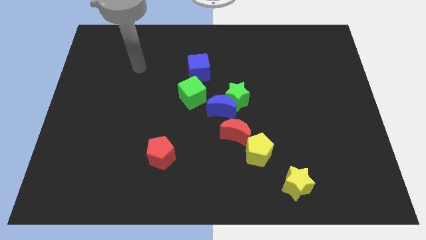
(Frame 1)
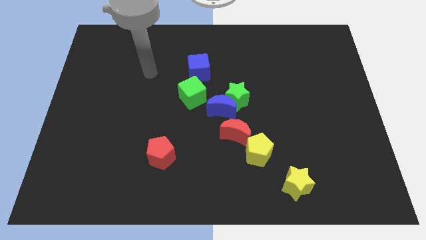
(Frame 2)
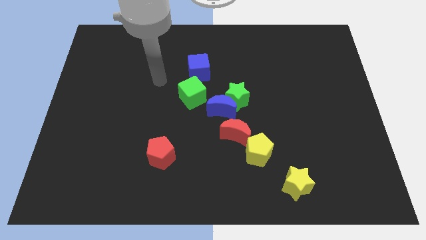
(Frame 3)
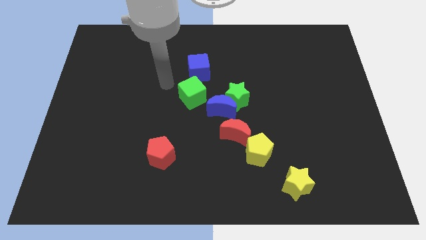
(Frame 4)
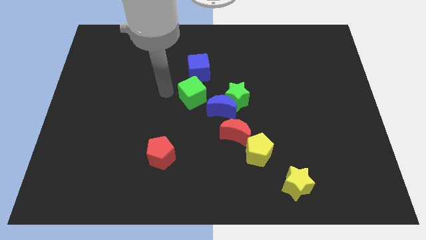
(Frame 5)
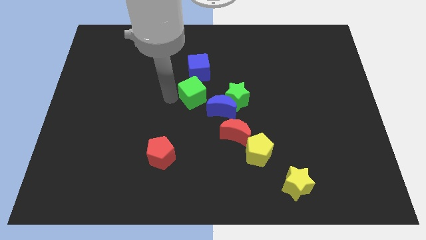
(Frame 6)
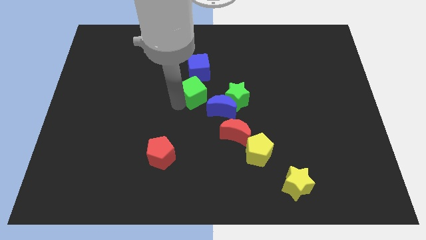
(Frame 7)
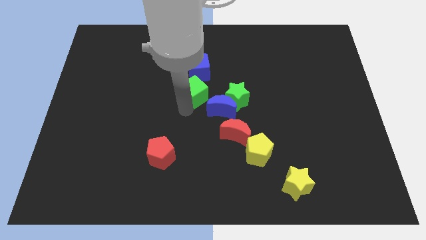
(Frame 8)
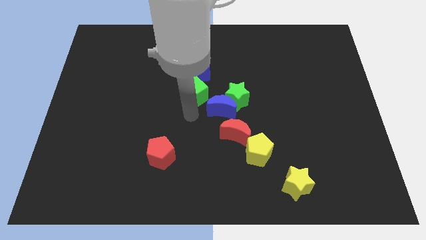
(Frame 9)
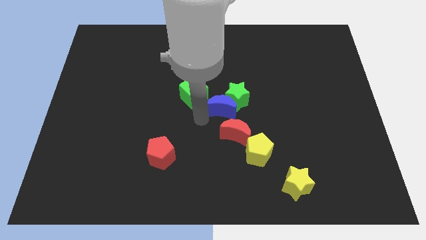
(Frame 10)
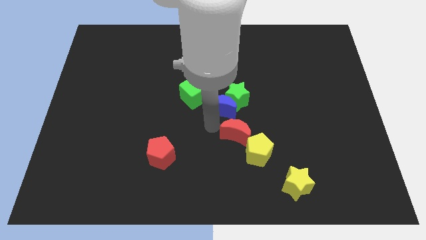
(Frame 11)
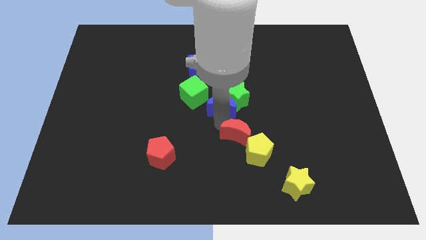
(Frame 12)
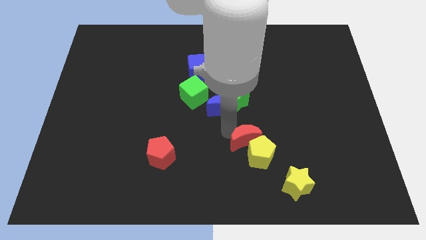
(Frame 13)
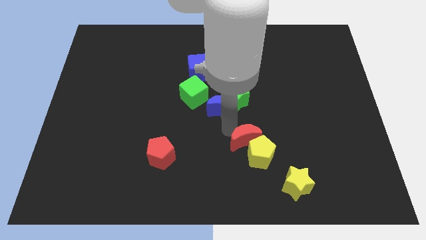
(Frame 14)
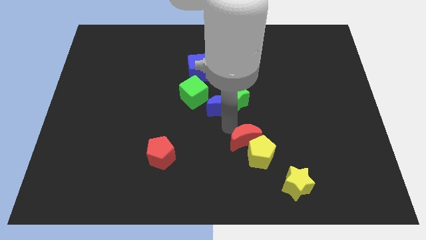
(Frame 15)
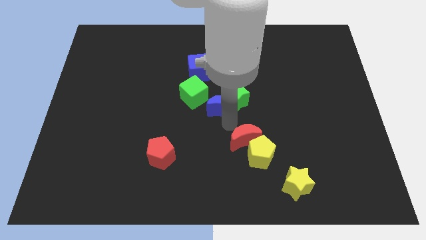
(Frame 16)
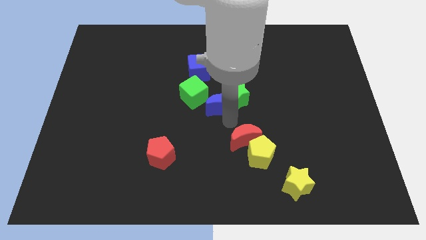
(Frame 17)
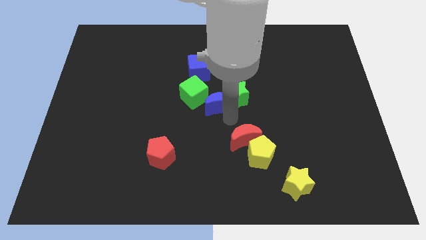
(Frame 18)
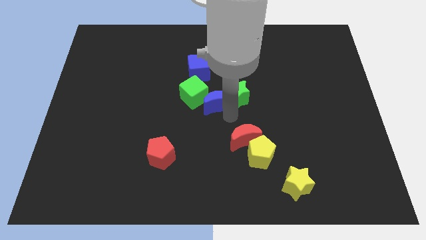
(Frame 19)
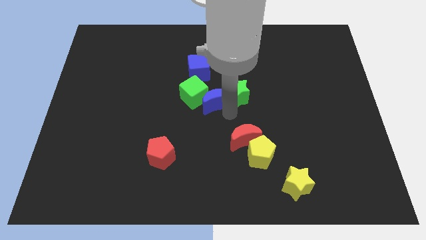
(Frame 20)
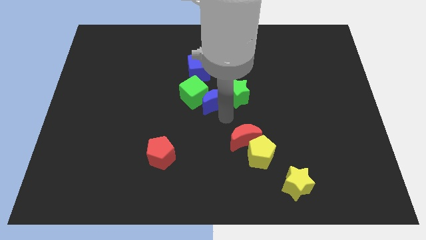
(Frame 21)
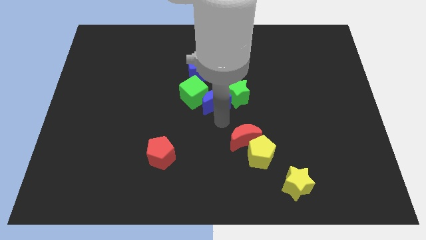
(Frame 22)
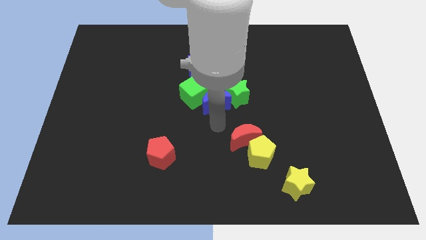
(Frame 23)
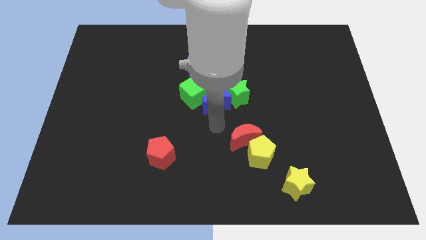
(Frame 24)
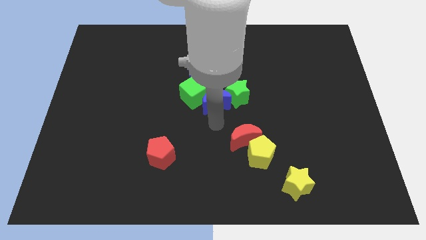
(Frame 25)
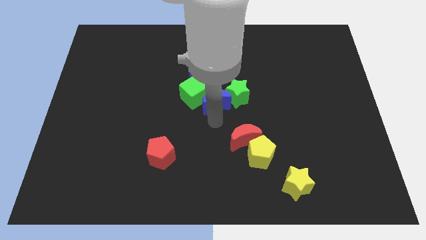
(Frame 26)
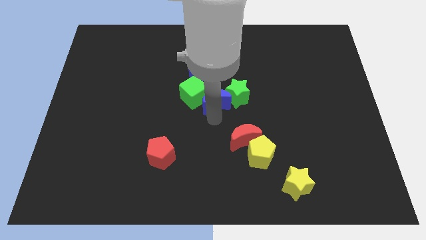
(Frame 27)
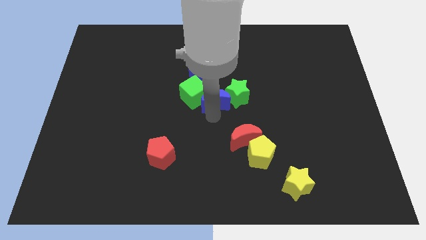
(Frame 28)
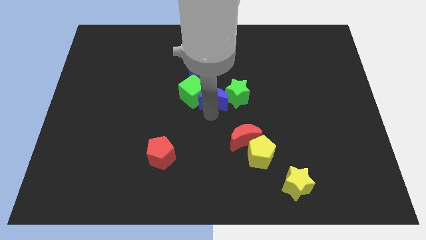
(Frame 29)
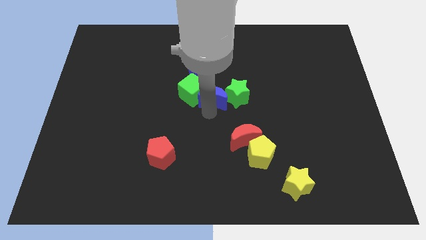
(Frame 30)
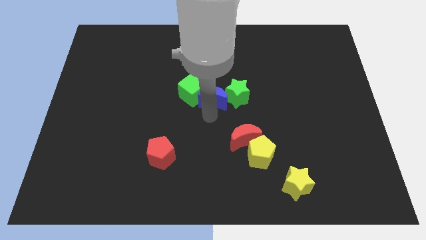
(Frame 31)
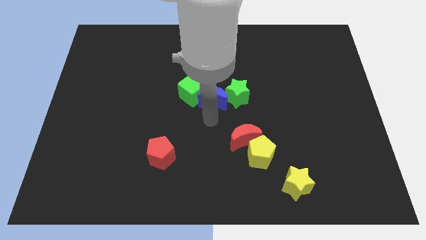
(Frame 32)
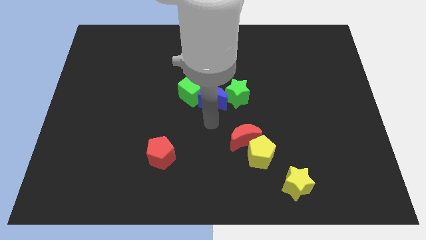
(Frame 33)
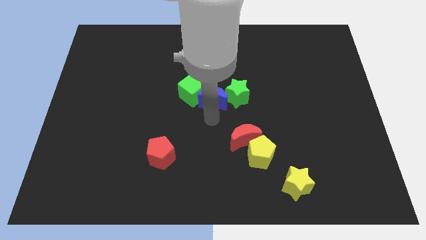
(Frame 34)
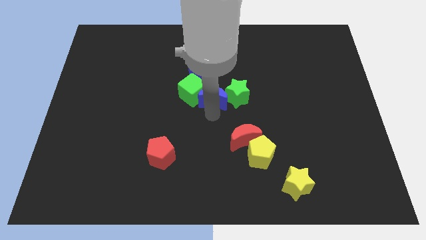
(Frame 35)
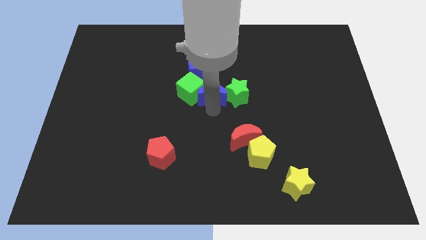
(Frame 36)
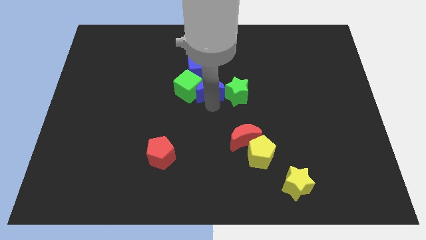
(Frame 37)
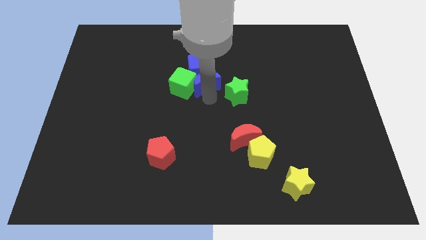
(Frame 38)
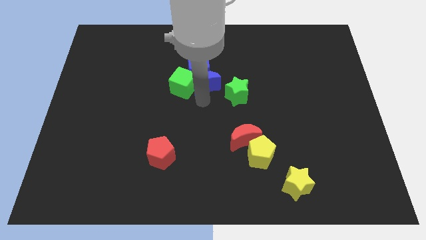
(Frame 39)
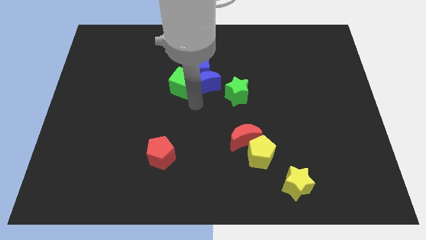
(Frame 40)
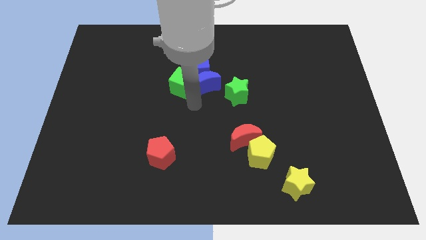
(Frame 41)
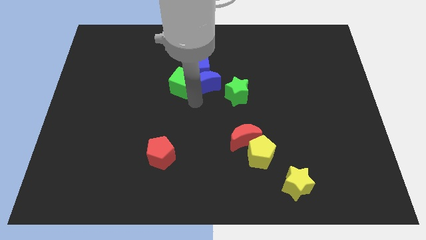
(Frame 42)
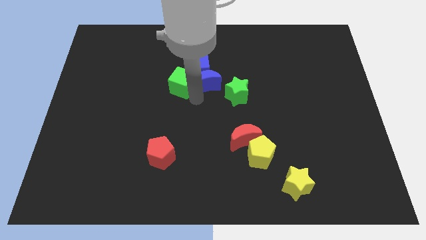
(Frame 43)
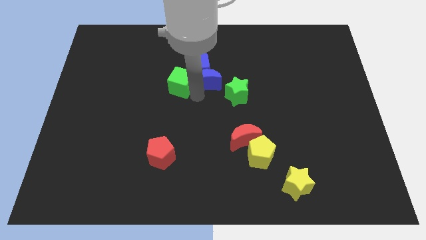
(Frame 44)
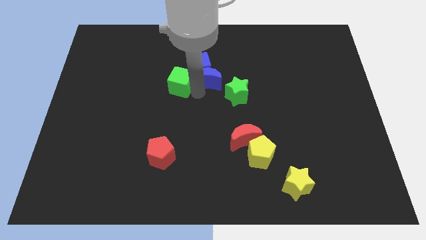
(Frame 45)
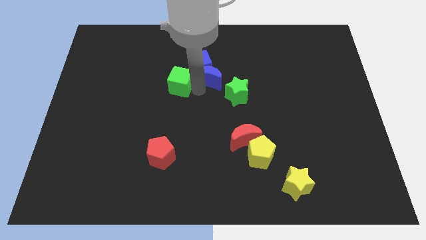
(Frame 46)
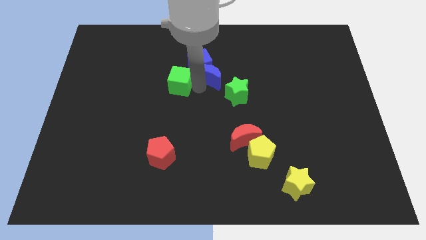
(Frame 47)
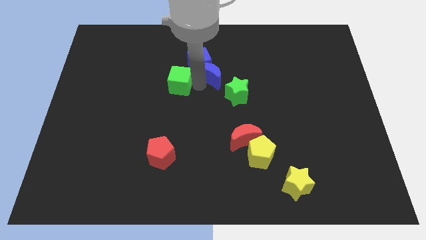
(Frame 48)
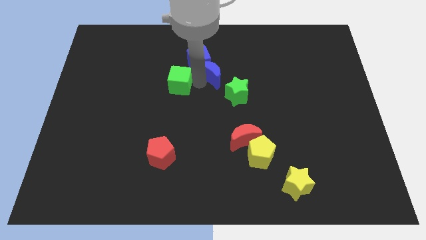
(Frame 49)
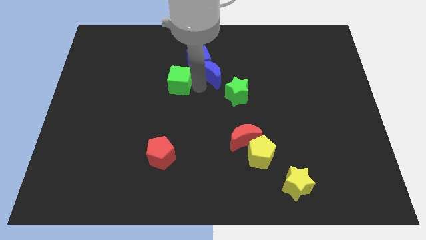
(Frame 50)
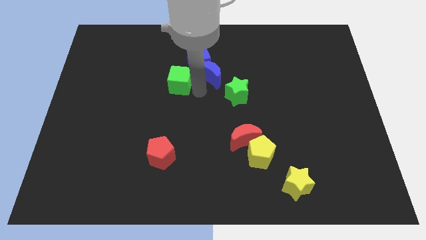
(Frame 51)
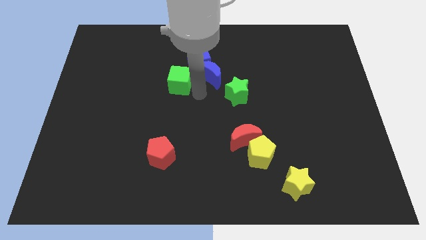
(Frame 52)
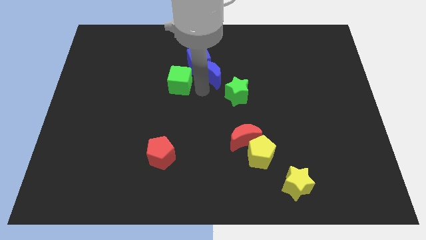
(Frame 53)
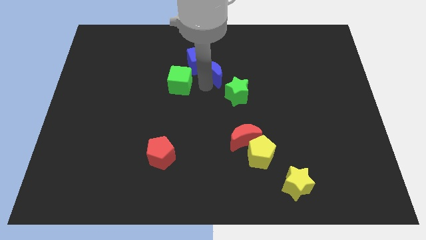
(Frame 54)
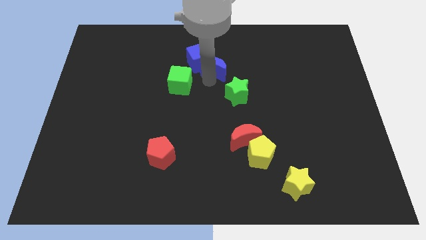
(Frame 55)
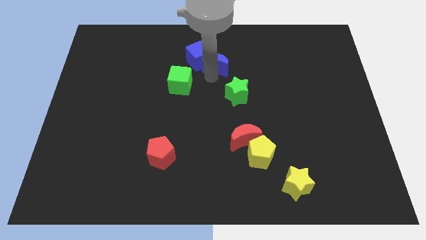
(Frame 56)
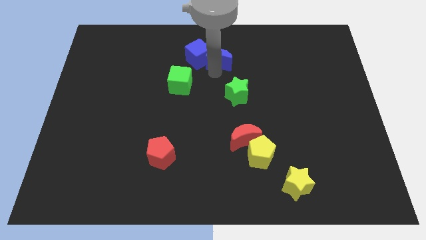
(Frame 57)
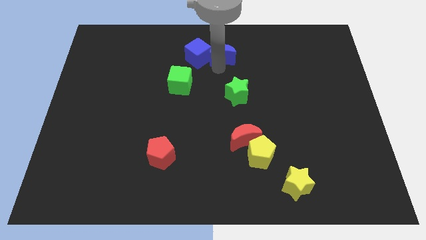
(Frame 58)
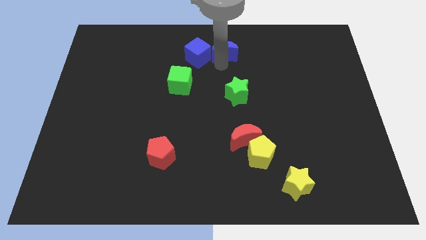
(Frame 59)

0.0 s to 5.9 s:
slide the blue moon to the top side

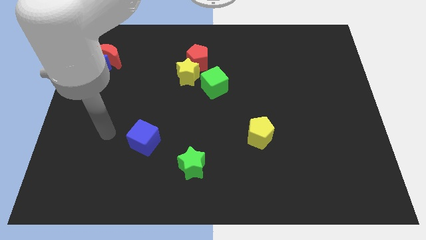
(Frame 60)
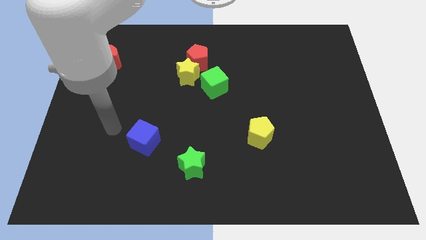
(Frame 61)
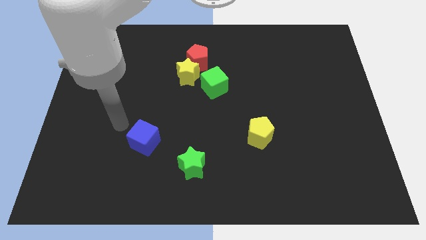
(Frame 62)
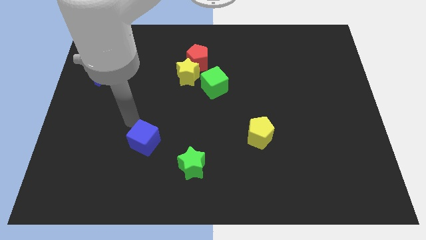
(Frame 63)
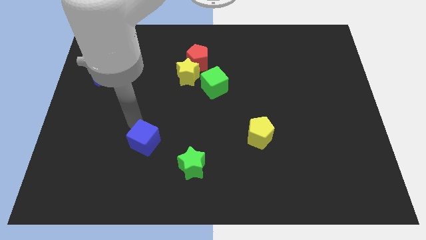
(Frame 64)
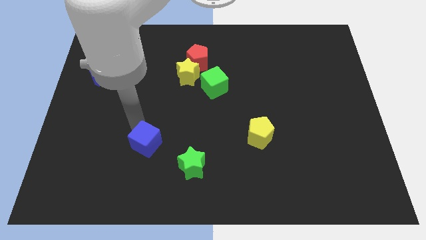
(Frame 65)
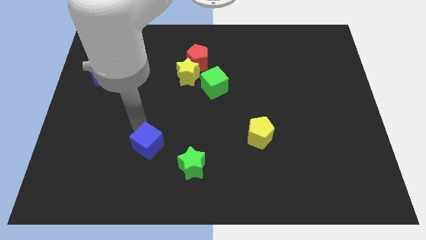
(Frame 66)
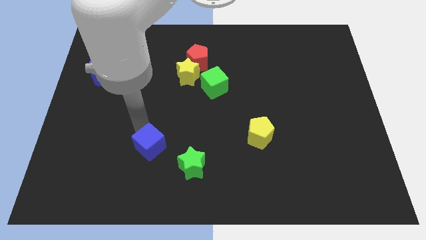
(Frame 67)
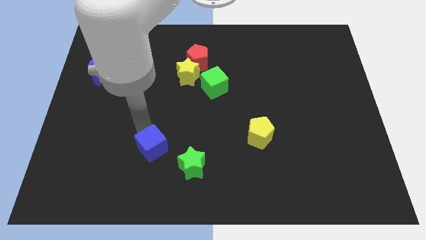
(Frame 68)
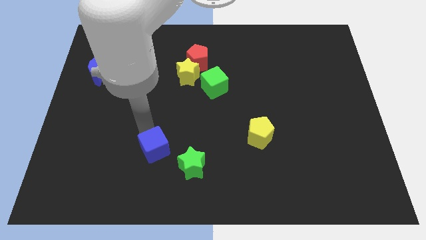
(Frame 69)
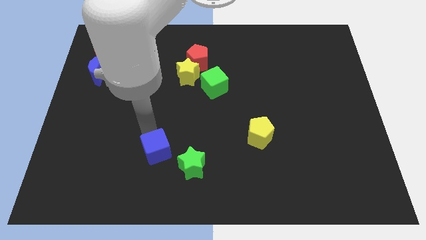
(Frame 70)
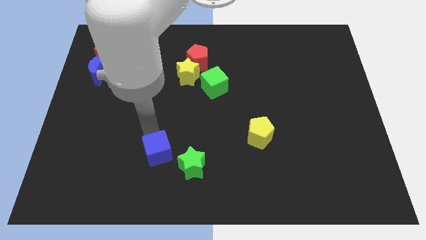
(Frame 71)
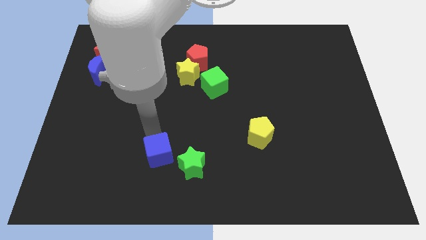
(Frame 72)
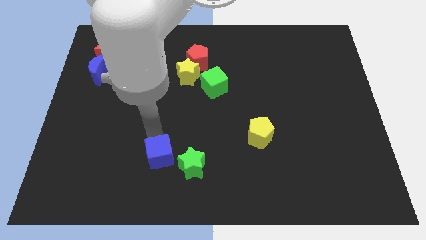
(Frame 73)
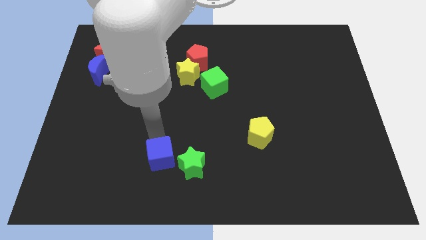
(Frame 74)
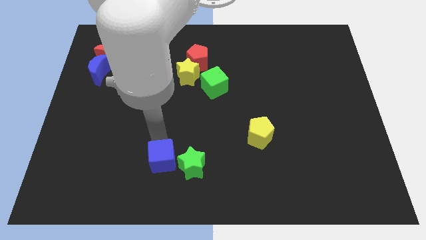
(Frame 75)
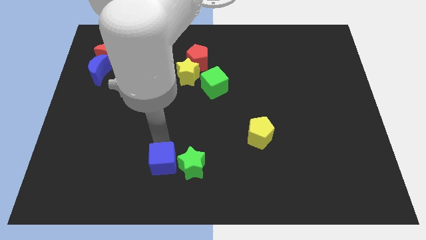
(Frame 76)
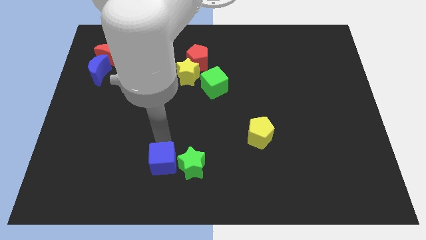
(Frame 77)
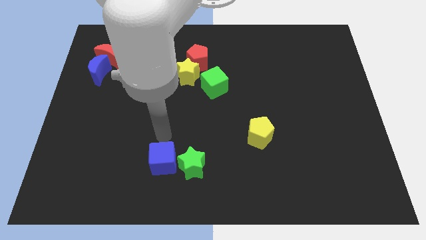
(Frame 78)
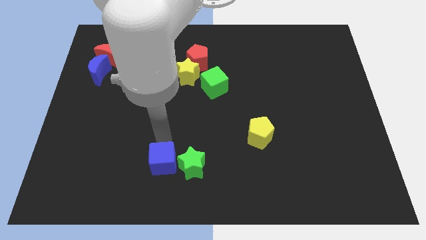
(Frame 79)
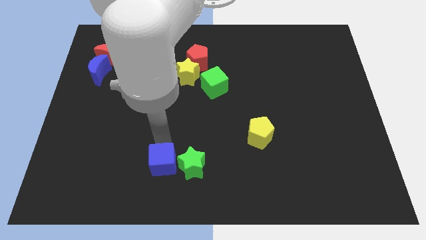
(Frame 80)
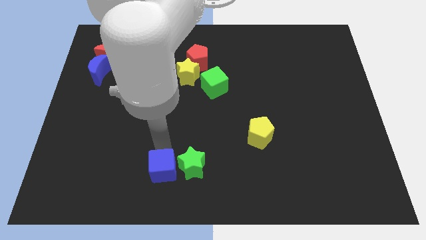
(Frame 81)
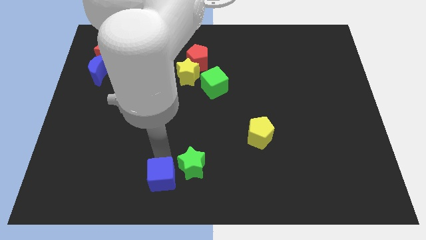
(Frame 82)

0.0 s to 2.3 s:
put the blue cube to the bottom
